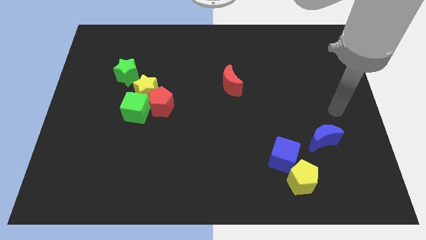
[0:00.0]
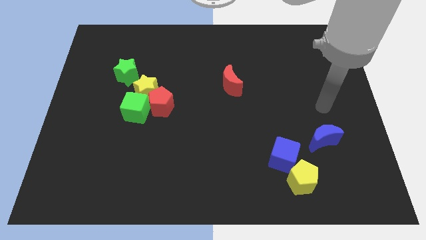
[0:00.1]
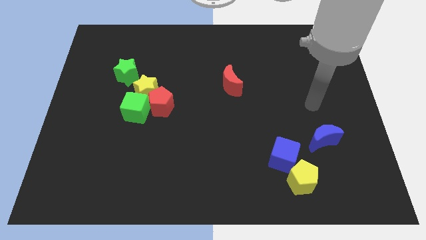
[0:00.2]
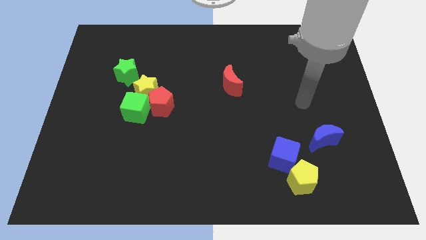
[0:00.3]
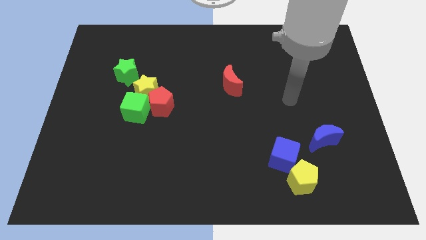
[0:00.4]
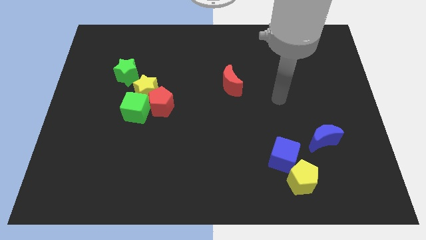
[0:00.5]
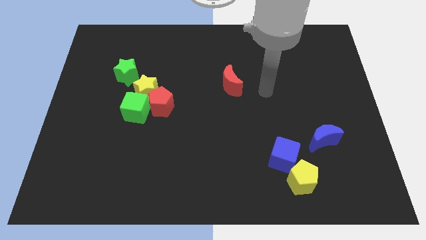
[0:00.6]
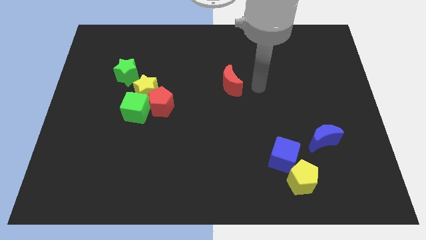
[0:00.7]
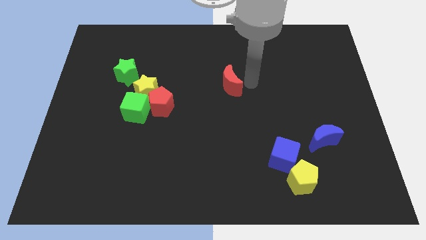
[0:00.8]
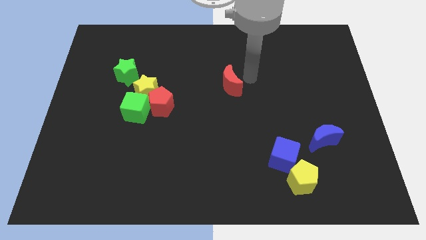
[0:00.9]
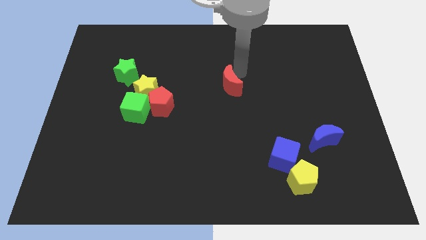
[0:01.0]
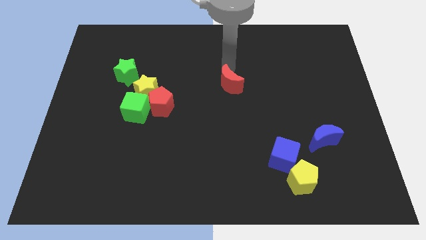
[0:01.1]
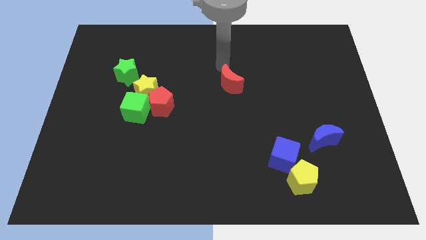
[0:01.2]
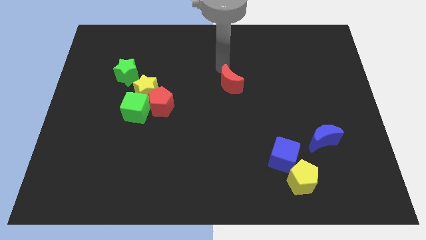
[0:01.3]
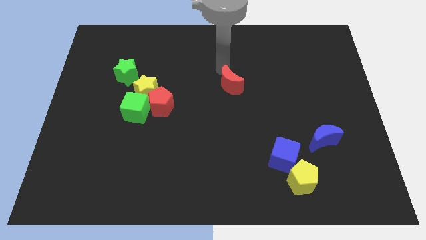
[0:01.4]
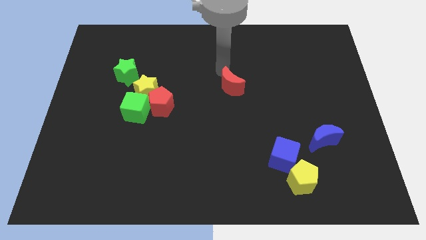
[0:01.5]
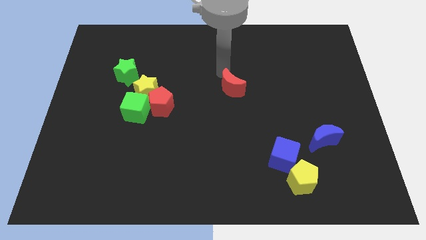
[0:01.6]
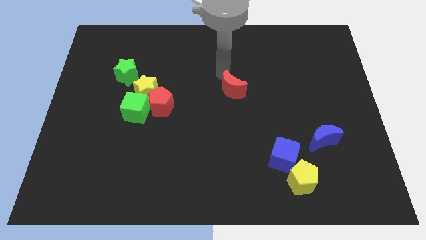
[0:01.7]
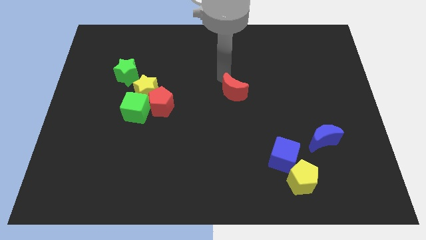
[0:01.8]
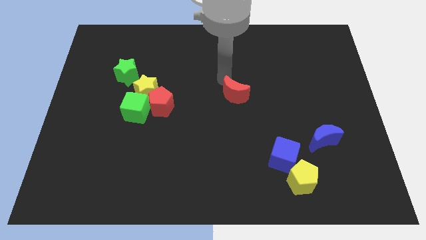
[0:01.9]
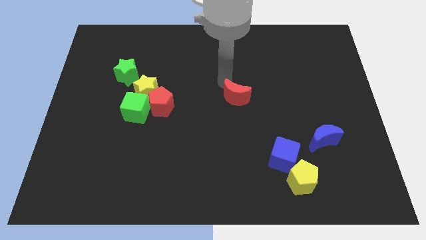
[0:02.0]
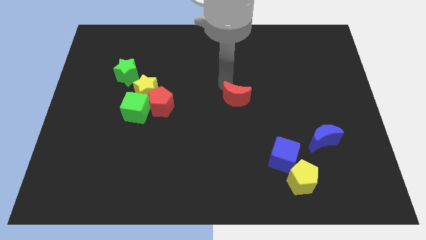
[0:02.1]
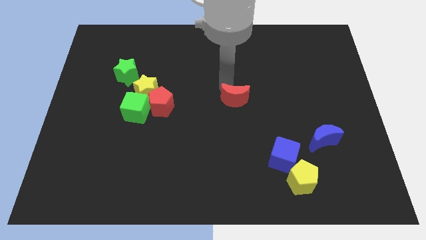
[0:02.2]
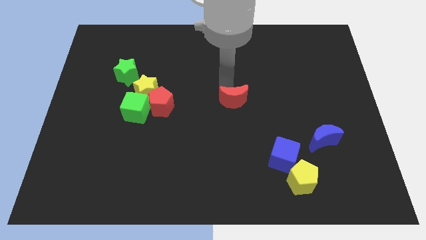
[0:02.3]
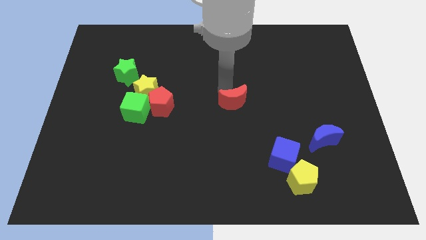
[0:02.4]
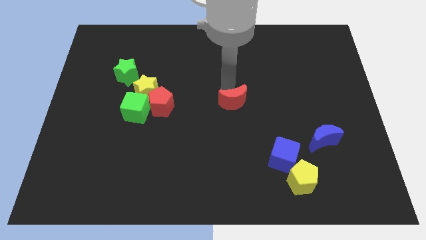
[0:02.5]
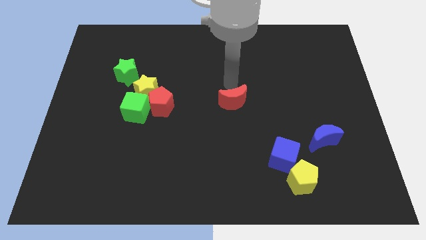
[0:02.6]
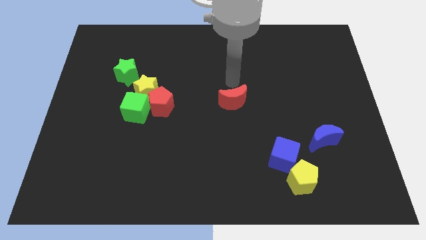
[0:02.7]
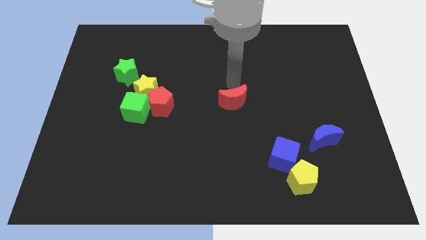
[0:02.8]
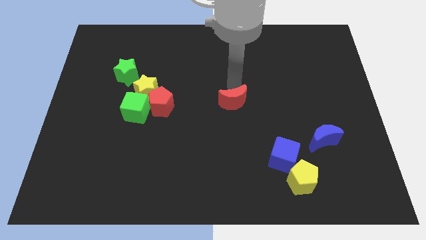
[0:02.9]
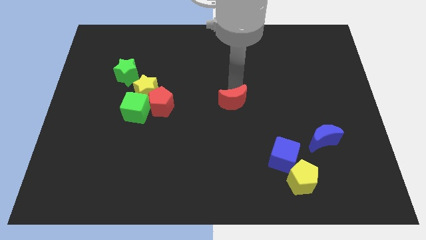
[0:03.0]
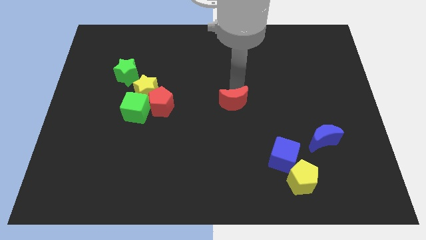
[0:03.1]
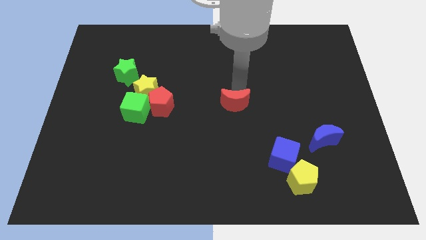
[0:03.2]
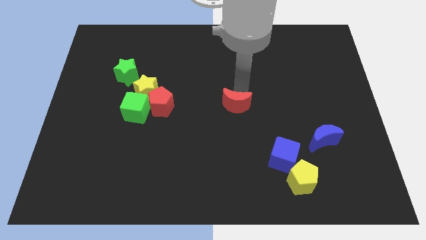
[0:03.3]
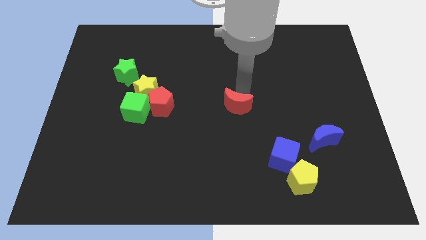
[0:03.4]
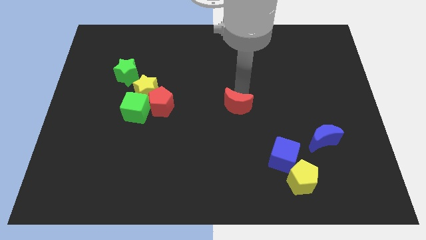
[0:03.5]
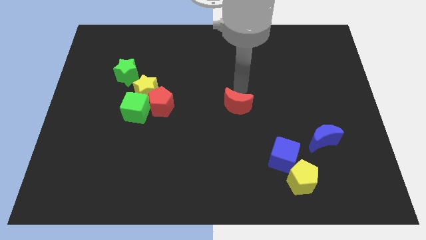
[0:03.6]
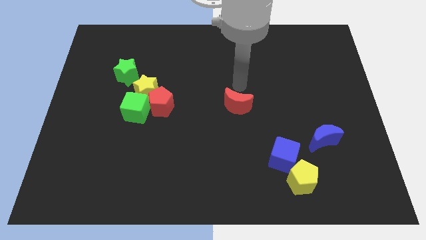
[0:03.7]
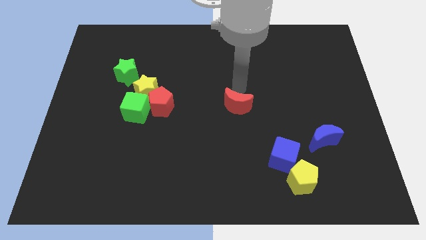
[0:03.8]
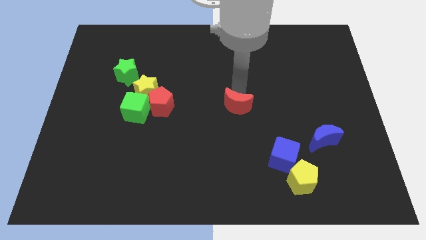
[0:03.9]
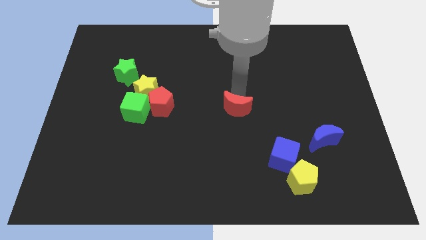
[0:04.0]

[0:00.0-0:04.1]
slightly push the red moon down

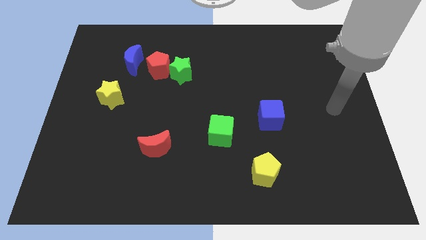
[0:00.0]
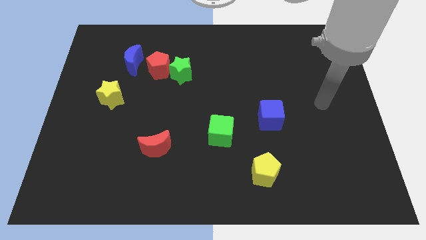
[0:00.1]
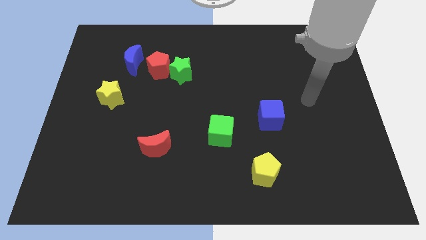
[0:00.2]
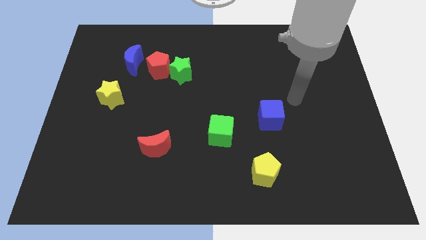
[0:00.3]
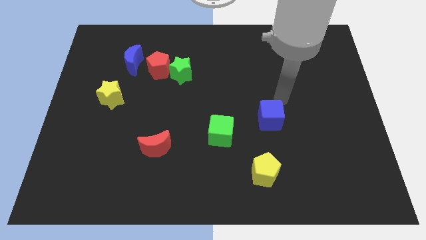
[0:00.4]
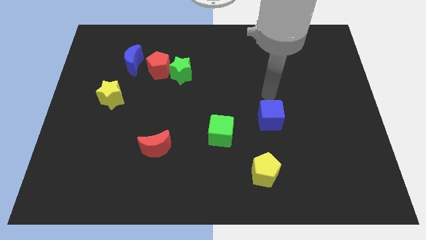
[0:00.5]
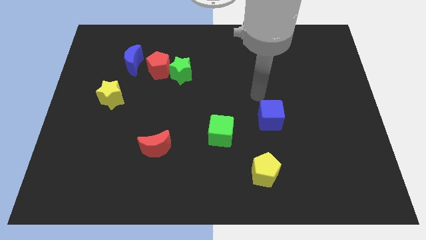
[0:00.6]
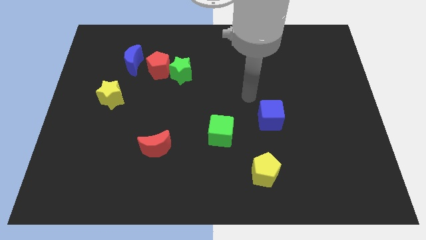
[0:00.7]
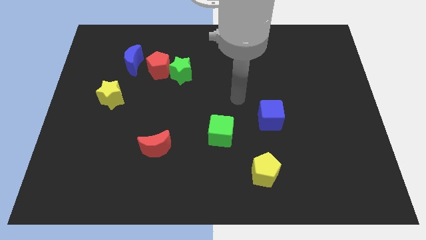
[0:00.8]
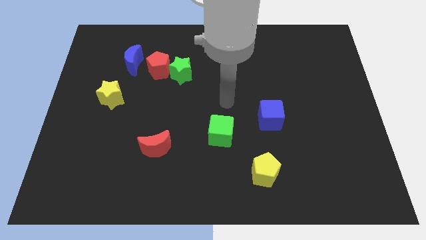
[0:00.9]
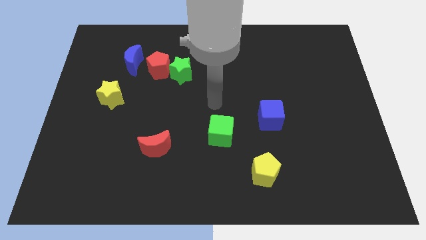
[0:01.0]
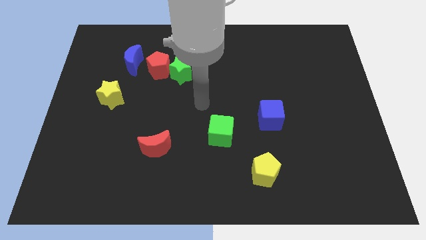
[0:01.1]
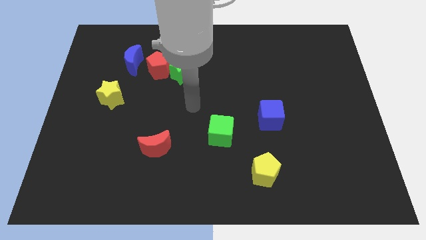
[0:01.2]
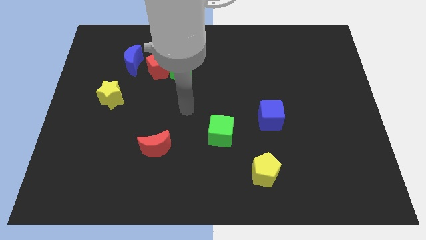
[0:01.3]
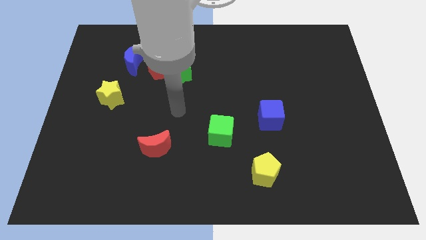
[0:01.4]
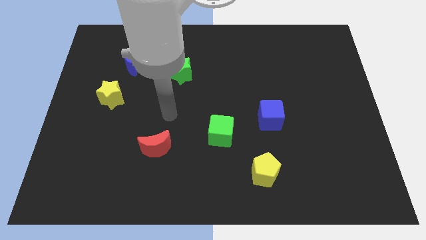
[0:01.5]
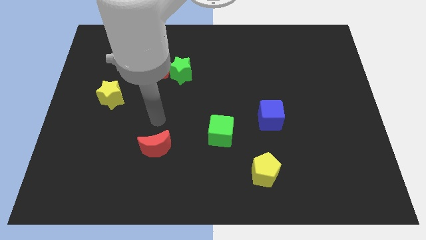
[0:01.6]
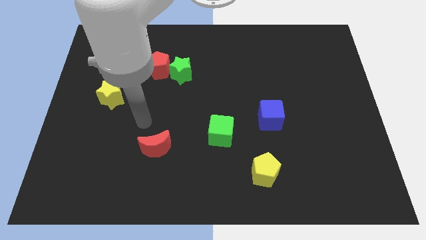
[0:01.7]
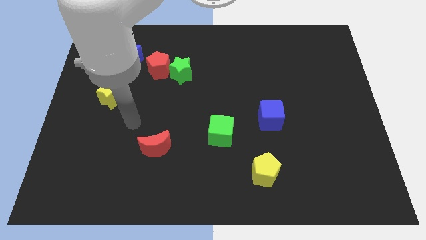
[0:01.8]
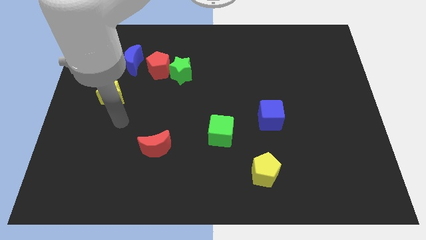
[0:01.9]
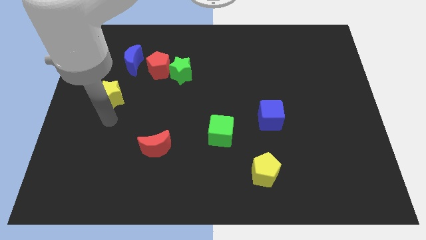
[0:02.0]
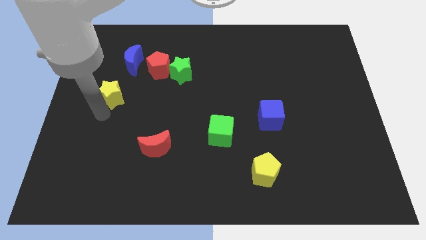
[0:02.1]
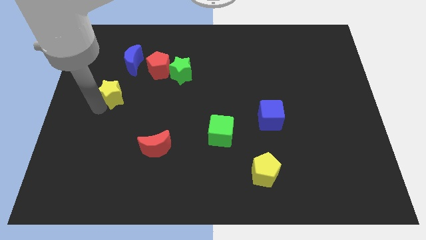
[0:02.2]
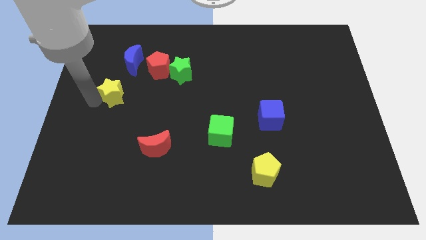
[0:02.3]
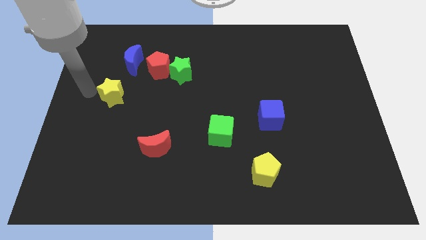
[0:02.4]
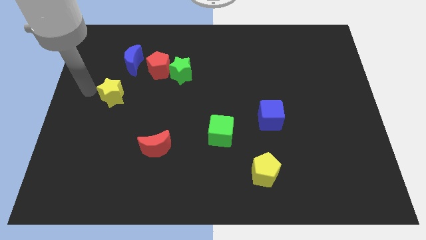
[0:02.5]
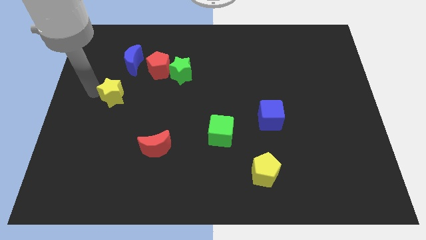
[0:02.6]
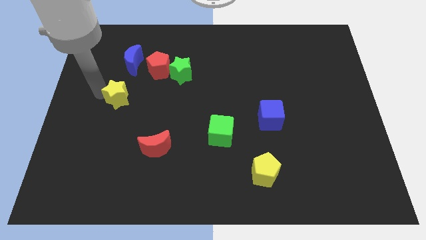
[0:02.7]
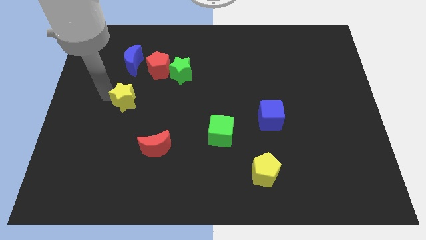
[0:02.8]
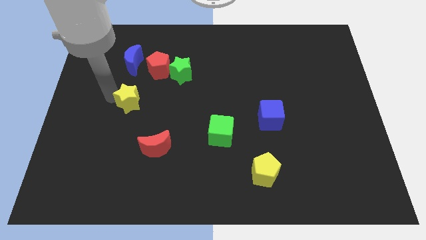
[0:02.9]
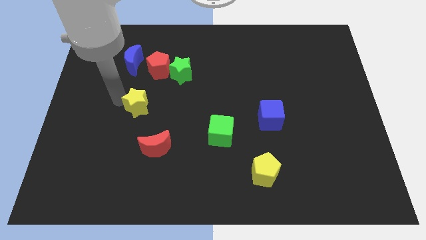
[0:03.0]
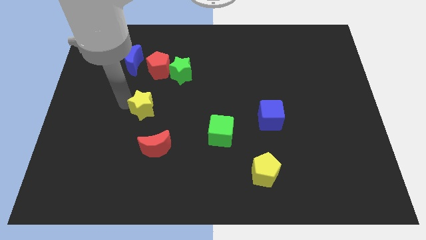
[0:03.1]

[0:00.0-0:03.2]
move the yellow star a little to the right

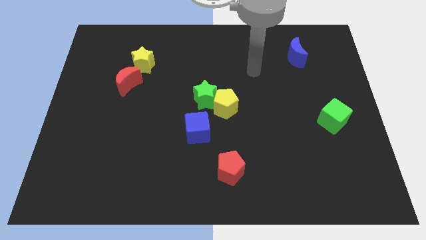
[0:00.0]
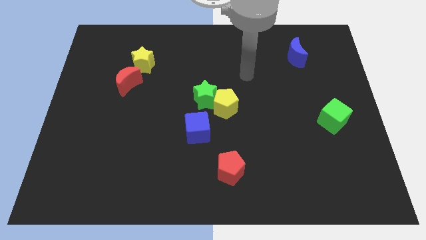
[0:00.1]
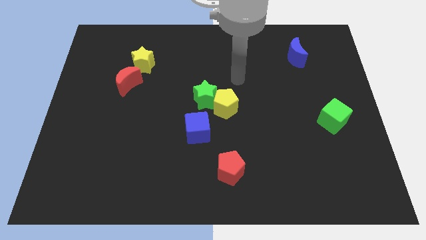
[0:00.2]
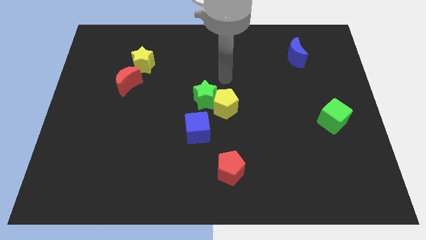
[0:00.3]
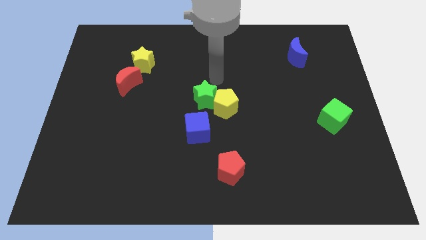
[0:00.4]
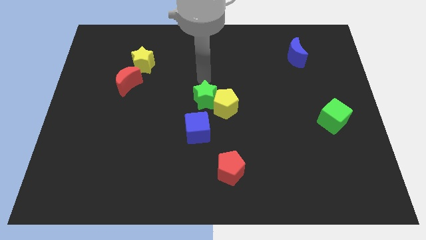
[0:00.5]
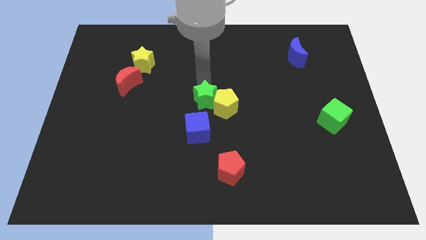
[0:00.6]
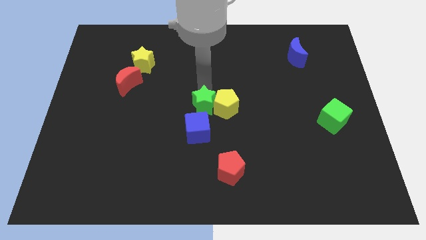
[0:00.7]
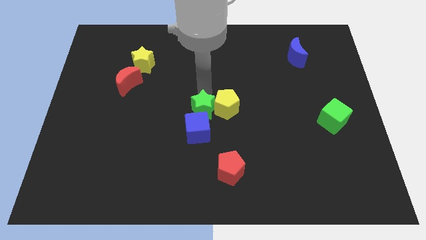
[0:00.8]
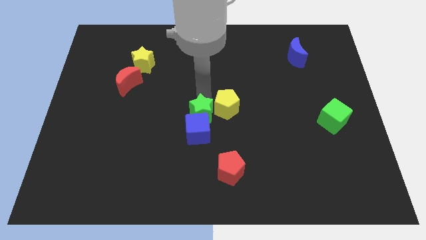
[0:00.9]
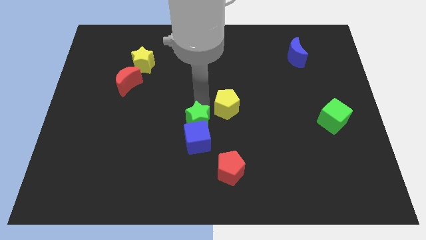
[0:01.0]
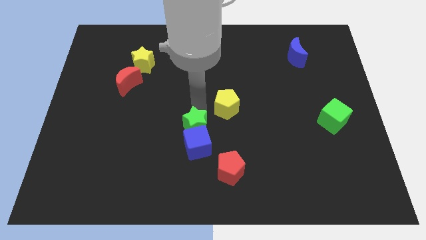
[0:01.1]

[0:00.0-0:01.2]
move the green star slightly downwards
